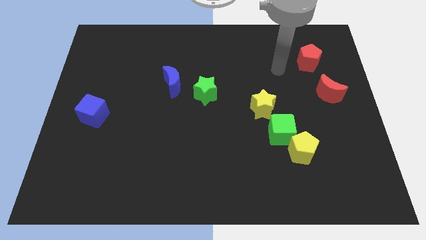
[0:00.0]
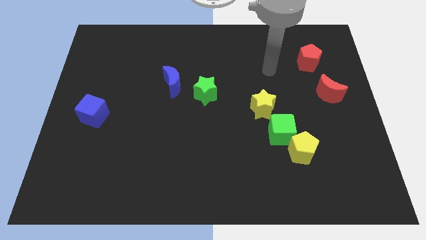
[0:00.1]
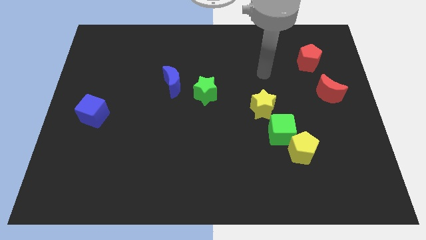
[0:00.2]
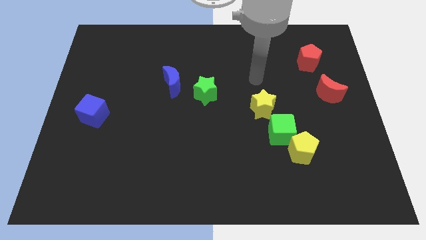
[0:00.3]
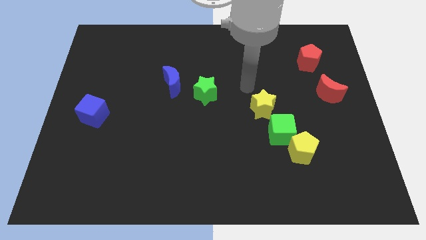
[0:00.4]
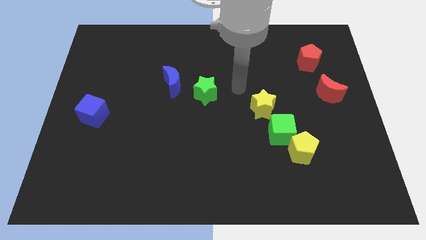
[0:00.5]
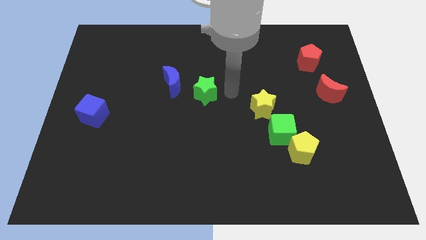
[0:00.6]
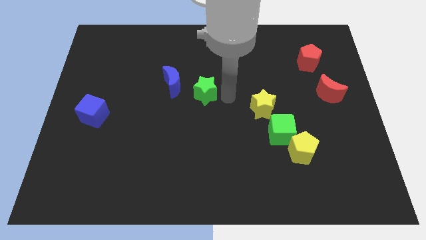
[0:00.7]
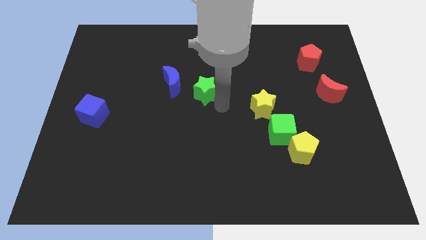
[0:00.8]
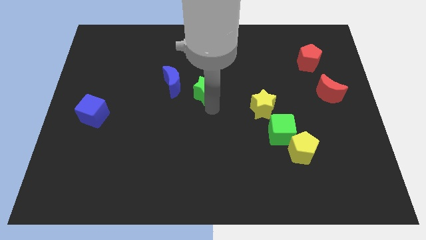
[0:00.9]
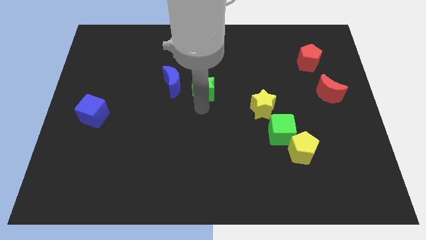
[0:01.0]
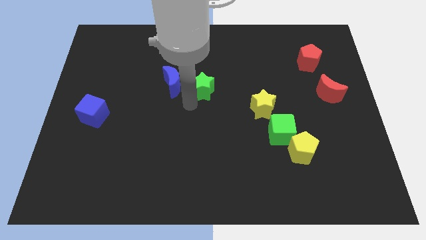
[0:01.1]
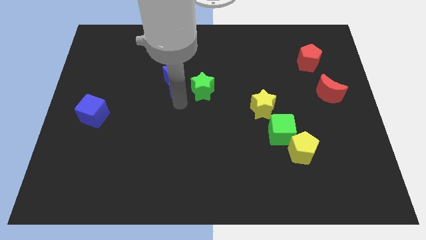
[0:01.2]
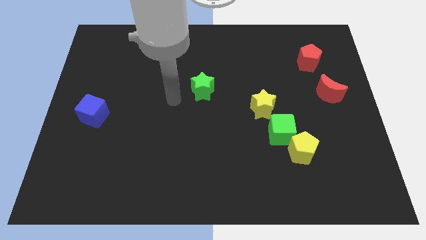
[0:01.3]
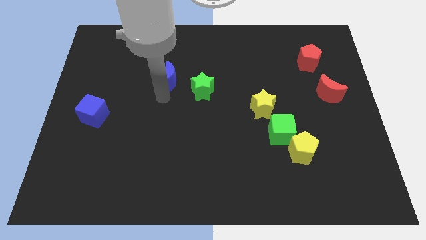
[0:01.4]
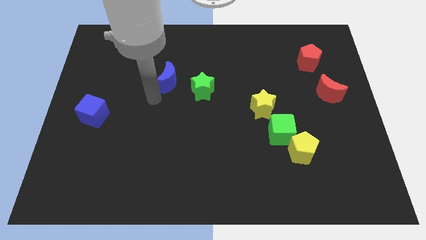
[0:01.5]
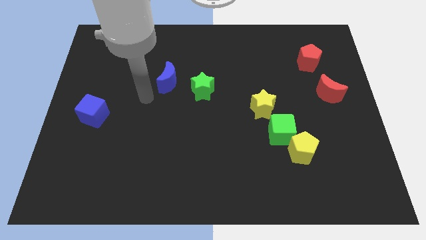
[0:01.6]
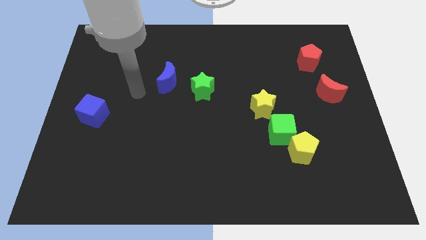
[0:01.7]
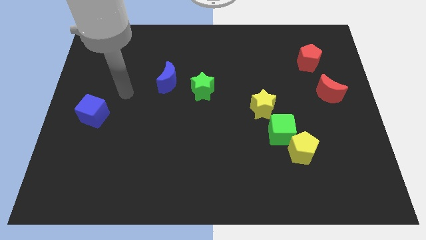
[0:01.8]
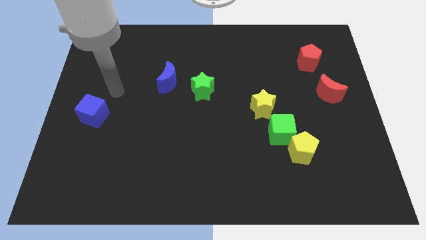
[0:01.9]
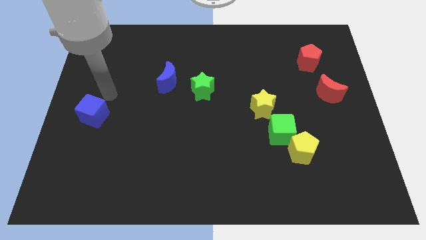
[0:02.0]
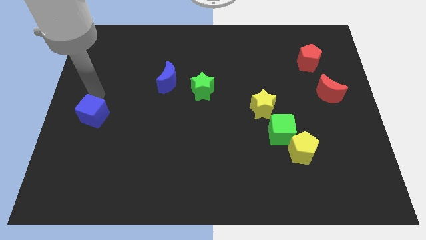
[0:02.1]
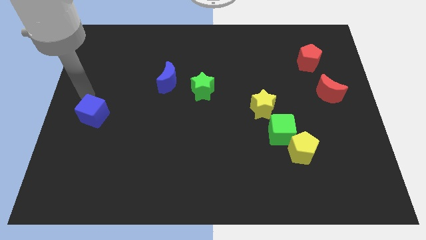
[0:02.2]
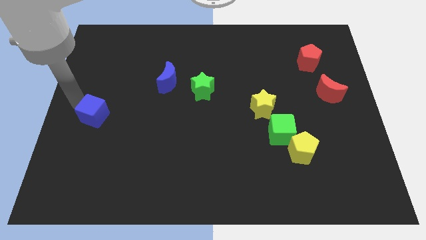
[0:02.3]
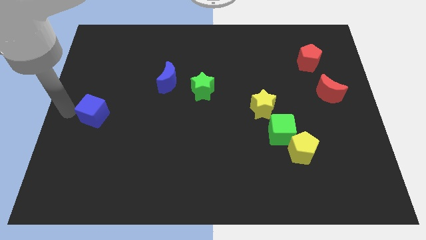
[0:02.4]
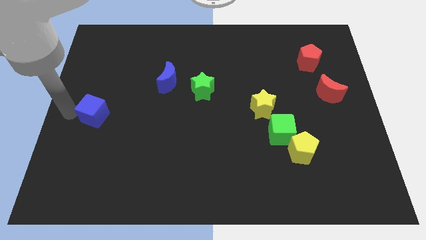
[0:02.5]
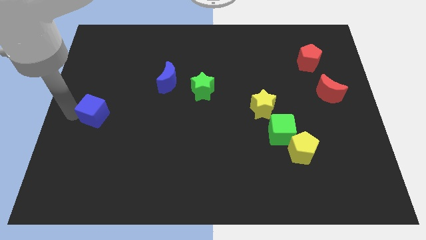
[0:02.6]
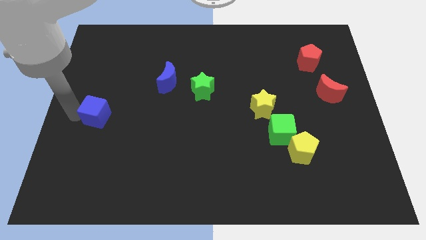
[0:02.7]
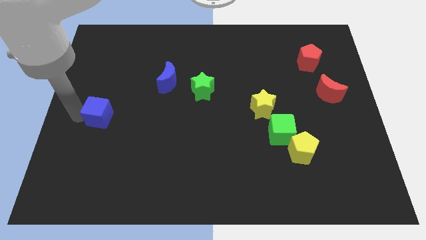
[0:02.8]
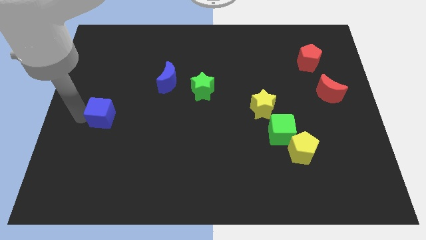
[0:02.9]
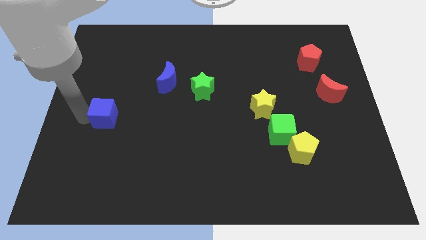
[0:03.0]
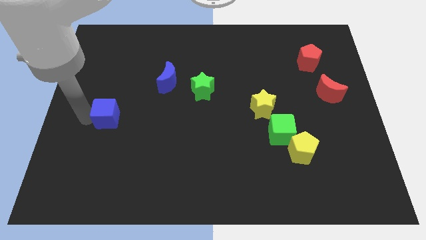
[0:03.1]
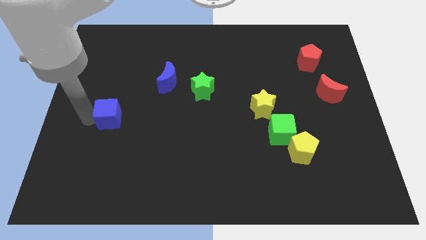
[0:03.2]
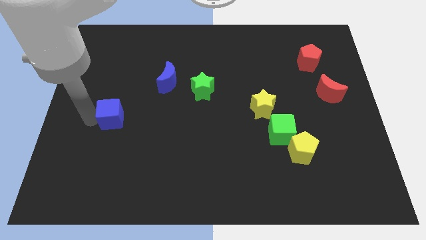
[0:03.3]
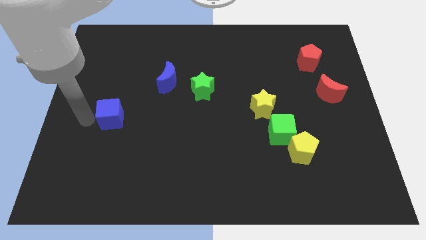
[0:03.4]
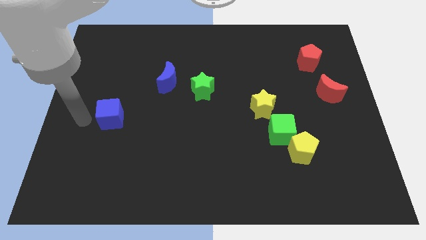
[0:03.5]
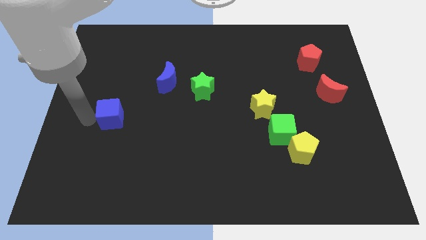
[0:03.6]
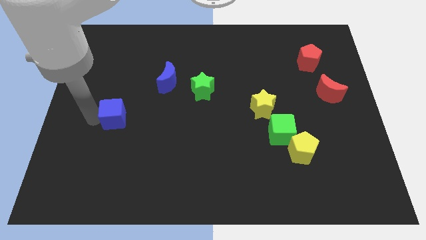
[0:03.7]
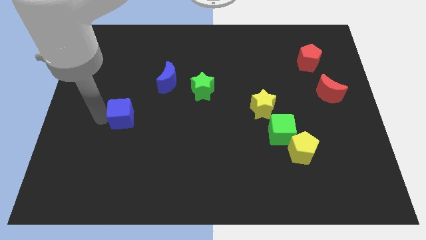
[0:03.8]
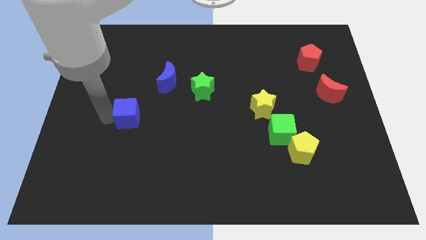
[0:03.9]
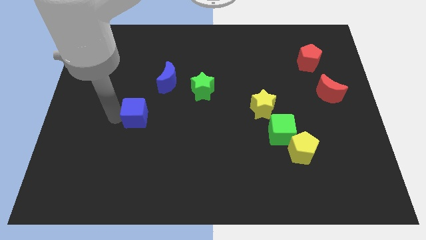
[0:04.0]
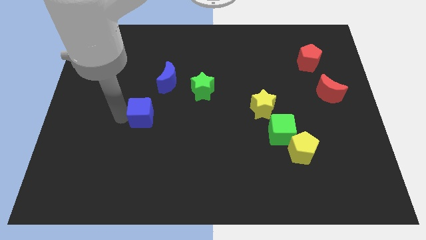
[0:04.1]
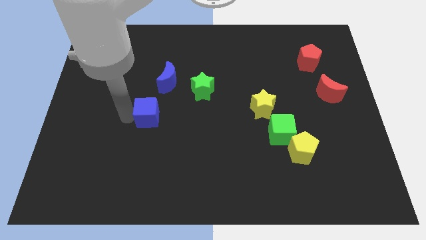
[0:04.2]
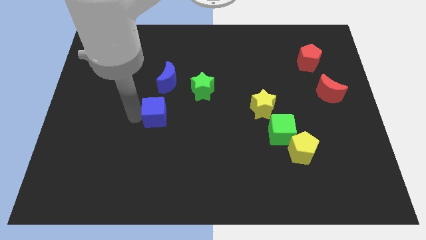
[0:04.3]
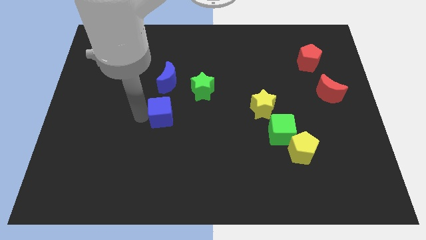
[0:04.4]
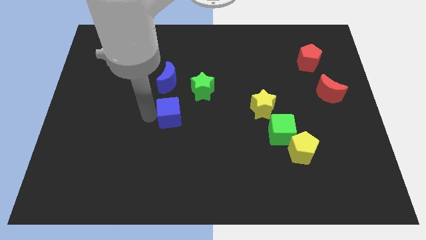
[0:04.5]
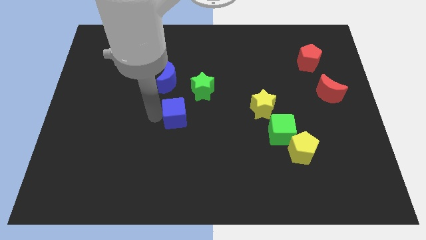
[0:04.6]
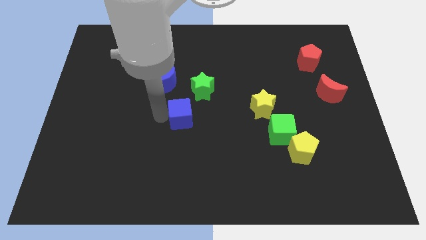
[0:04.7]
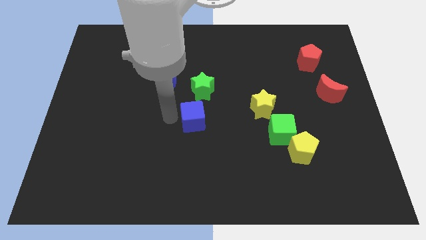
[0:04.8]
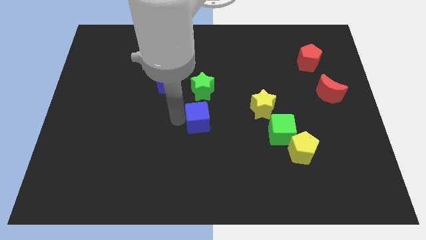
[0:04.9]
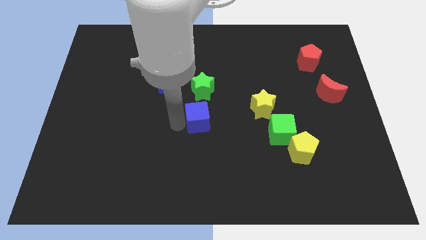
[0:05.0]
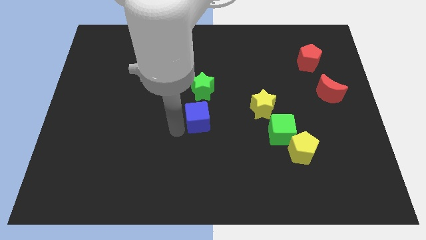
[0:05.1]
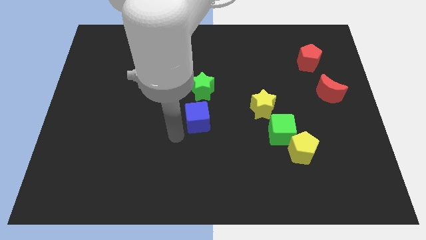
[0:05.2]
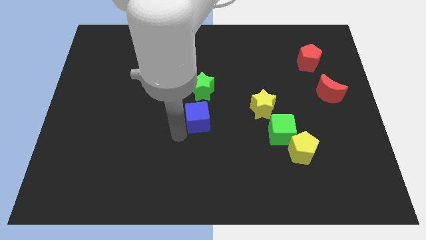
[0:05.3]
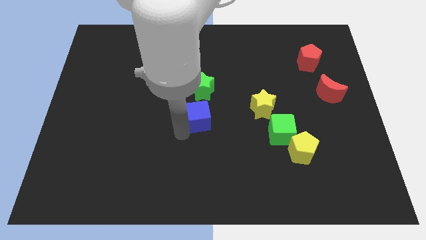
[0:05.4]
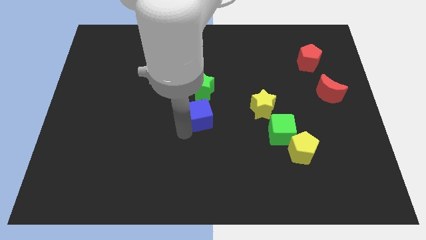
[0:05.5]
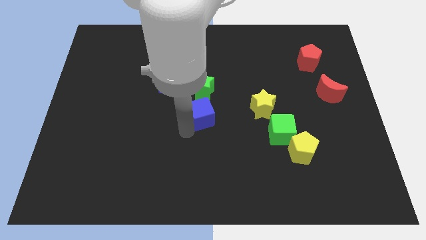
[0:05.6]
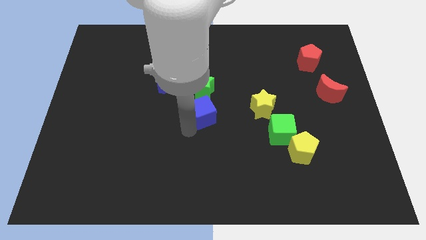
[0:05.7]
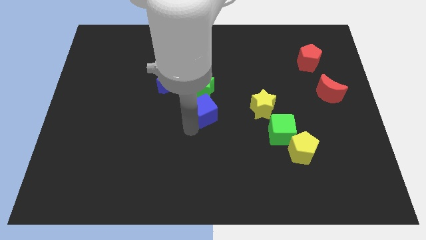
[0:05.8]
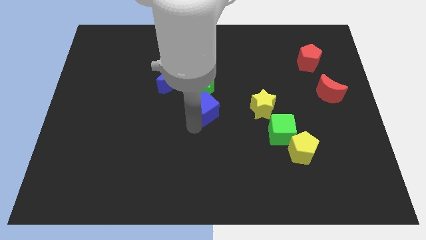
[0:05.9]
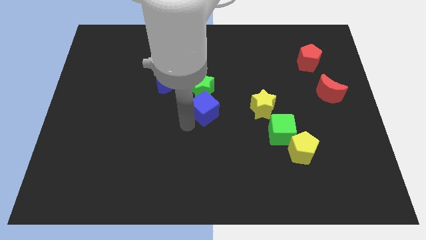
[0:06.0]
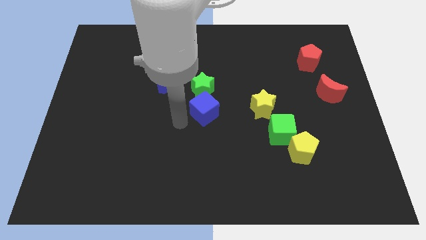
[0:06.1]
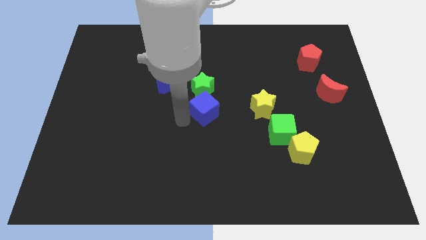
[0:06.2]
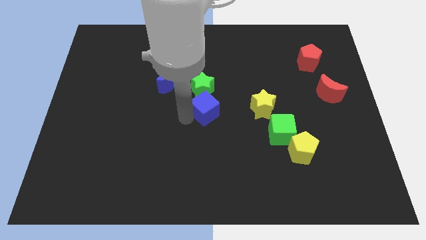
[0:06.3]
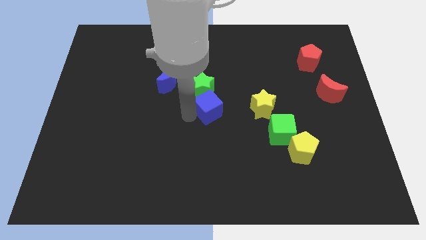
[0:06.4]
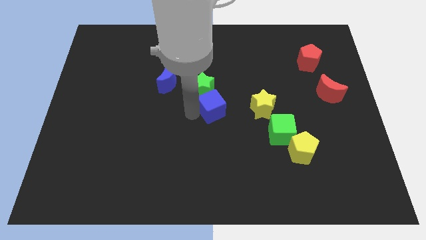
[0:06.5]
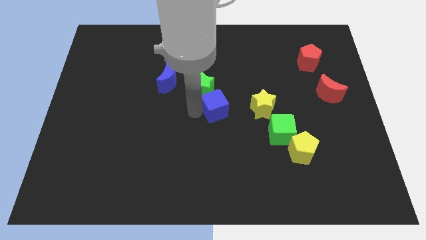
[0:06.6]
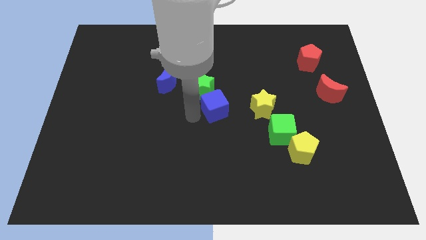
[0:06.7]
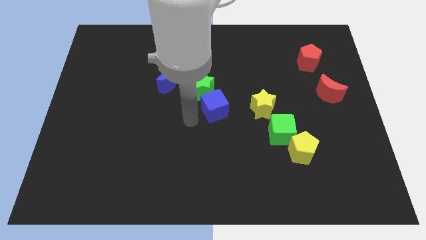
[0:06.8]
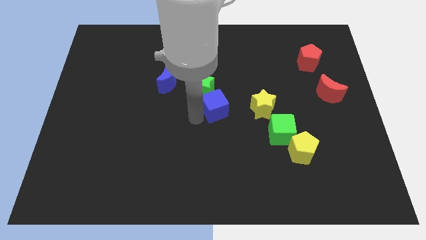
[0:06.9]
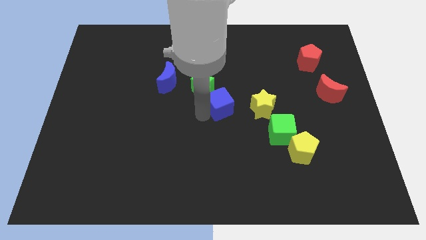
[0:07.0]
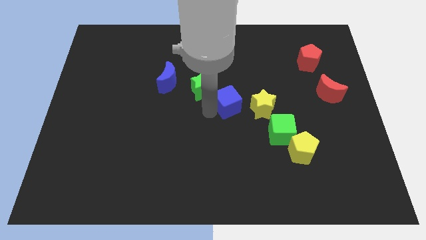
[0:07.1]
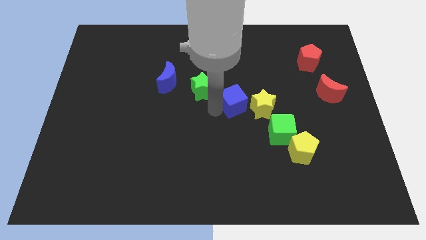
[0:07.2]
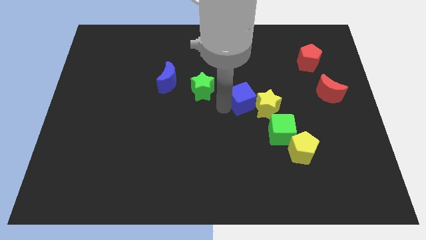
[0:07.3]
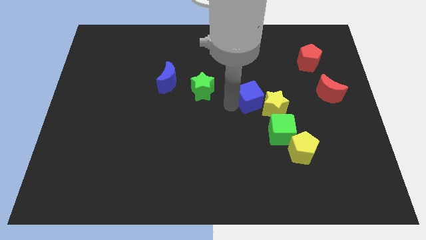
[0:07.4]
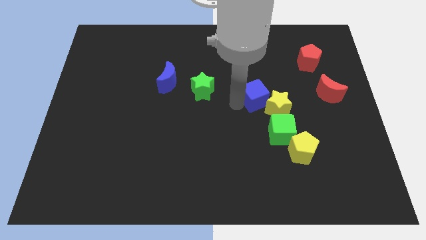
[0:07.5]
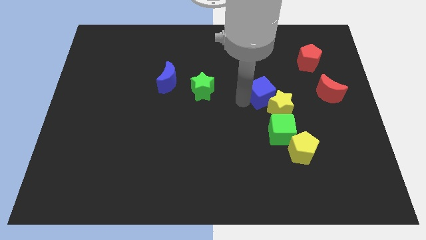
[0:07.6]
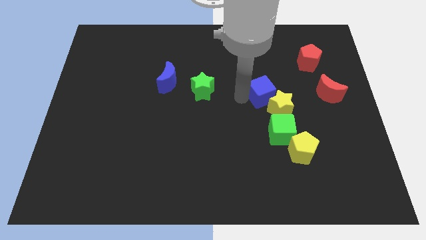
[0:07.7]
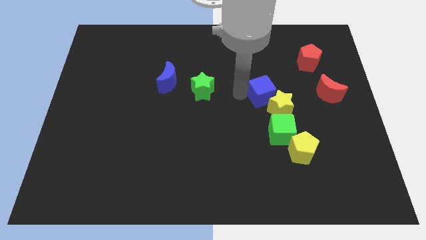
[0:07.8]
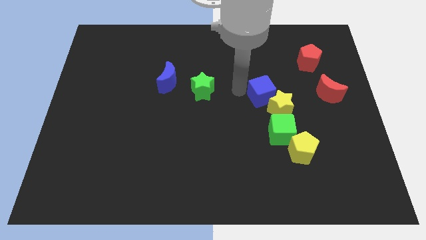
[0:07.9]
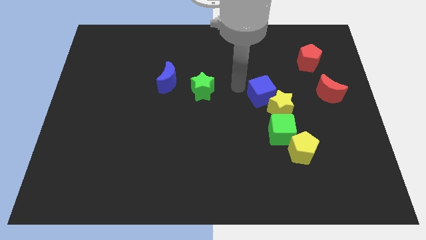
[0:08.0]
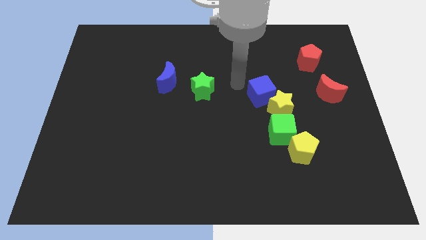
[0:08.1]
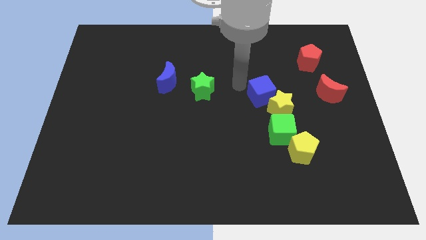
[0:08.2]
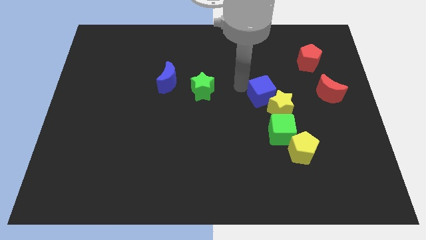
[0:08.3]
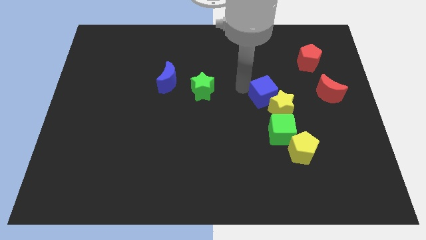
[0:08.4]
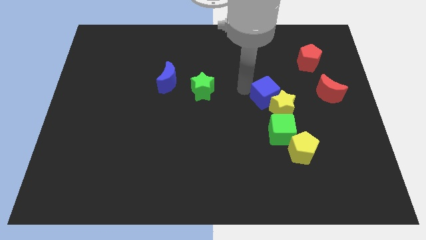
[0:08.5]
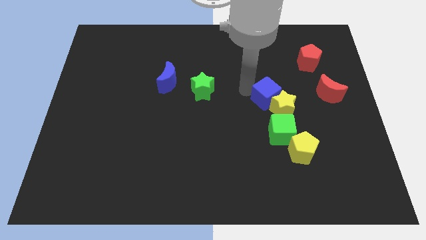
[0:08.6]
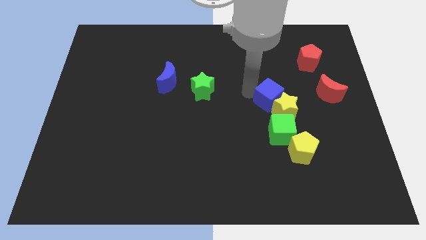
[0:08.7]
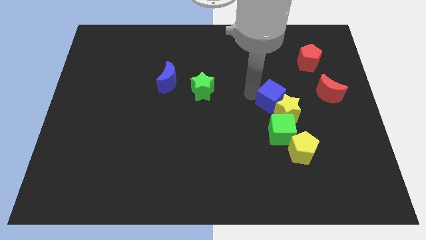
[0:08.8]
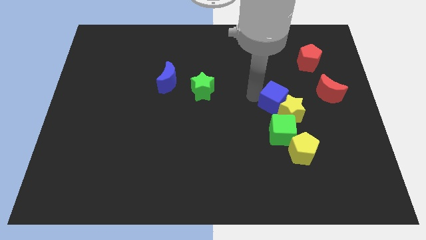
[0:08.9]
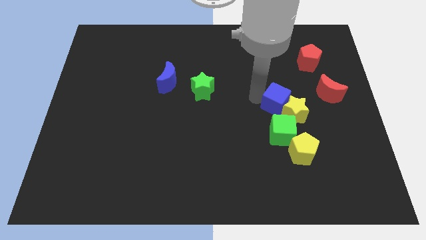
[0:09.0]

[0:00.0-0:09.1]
put the blue cube above the yellow pentagon
